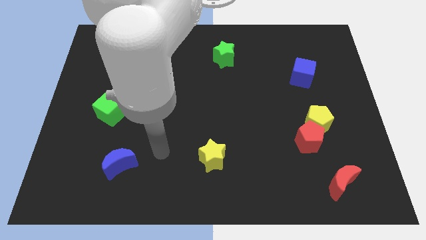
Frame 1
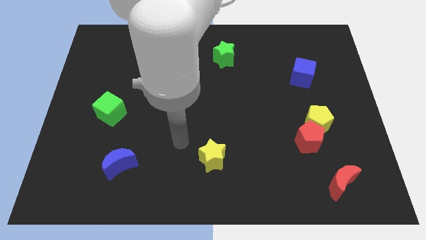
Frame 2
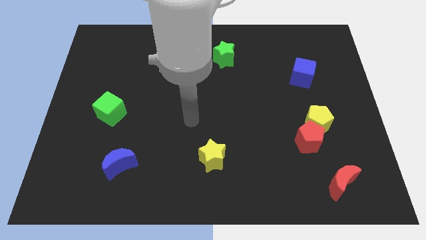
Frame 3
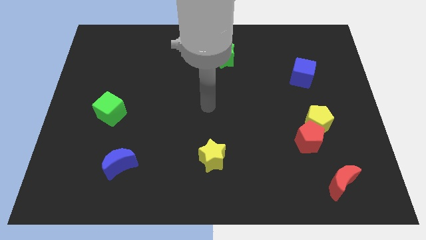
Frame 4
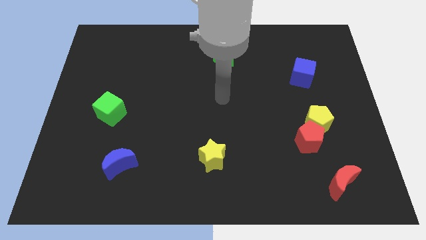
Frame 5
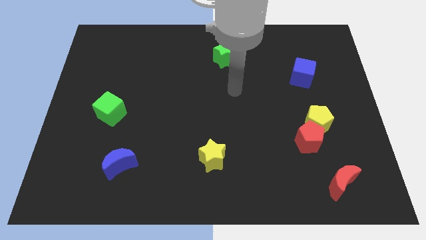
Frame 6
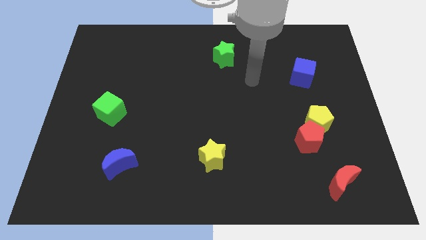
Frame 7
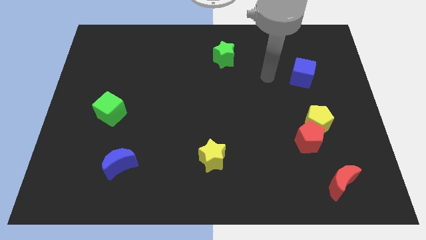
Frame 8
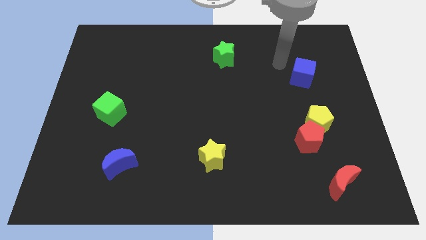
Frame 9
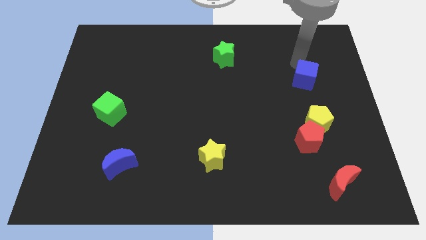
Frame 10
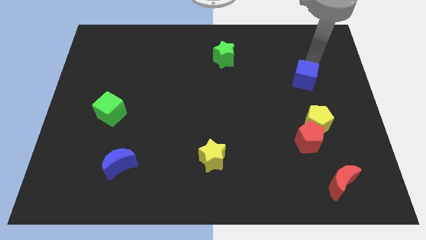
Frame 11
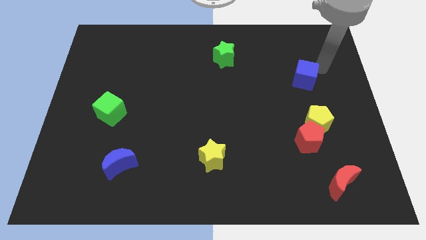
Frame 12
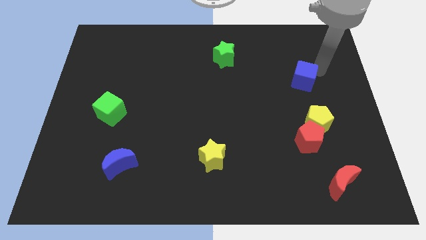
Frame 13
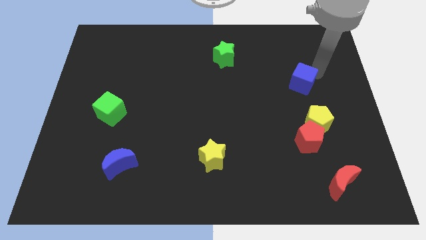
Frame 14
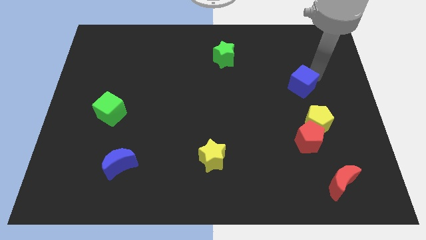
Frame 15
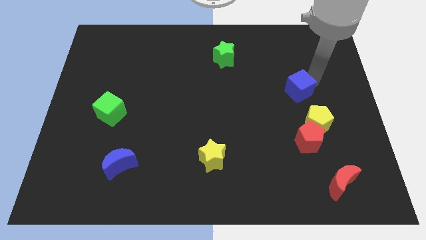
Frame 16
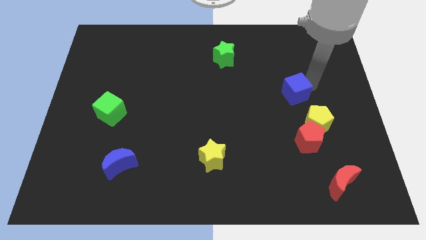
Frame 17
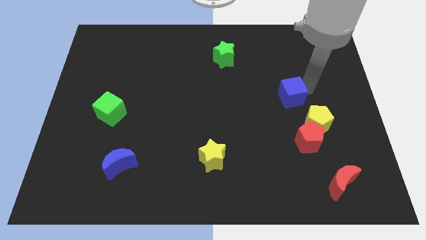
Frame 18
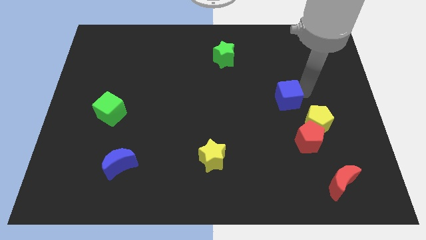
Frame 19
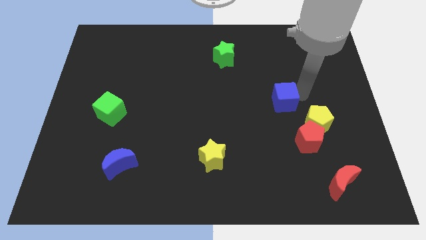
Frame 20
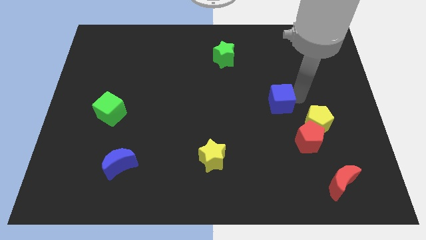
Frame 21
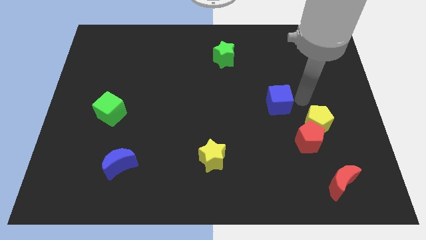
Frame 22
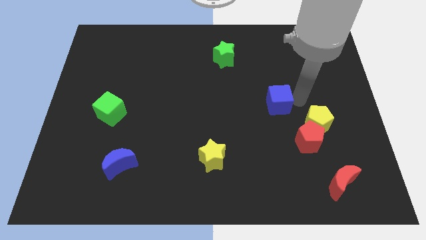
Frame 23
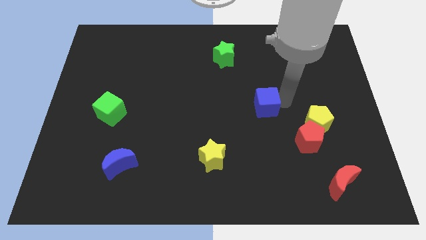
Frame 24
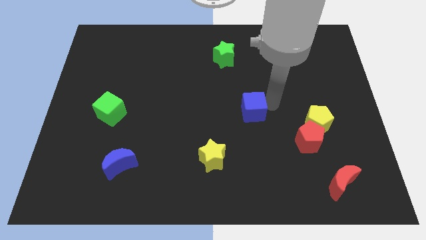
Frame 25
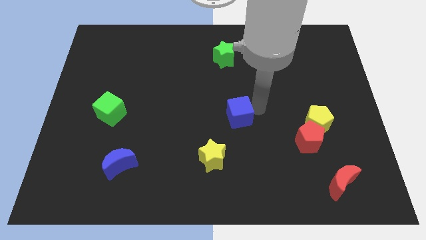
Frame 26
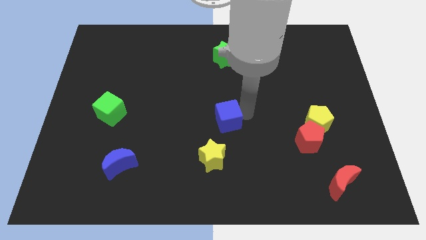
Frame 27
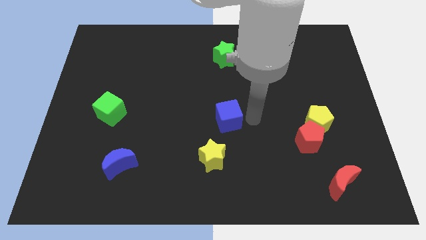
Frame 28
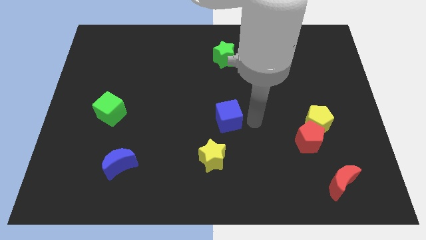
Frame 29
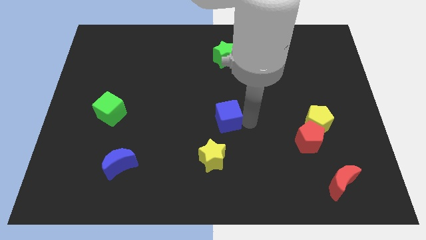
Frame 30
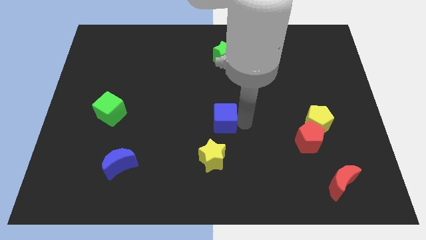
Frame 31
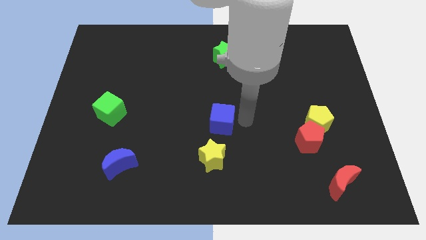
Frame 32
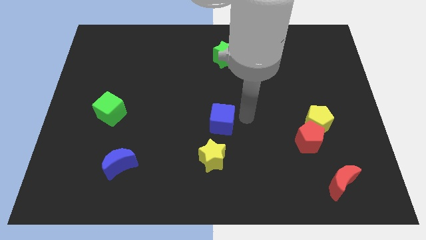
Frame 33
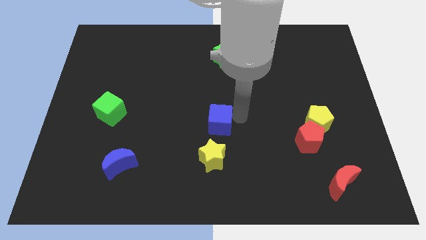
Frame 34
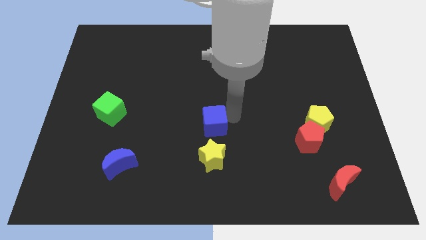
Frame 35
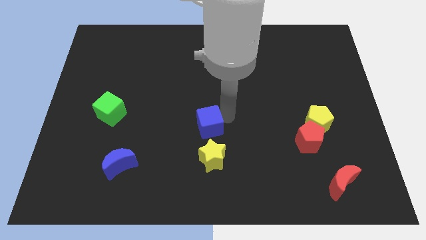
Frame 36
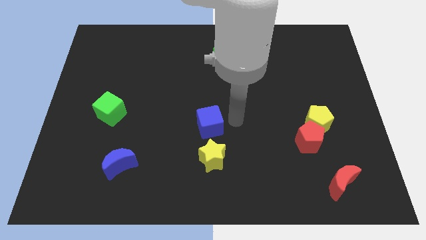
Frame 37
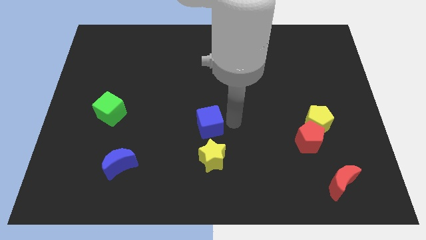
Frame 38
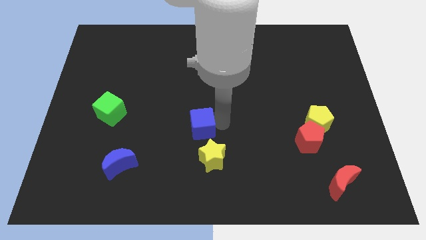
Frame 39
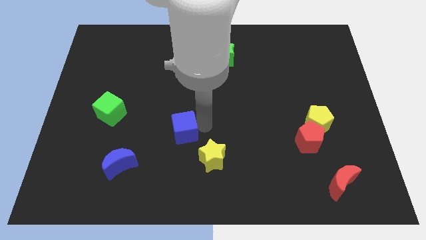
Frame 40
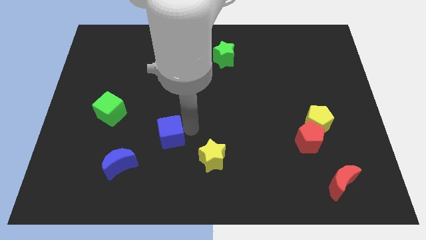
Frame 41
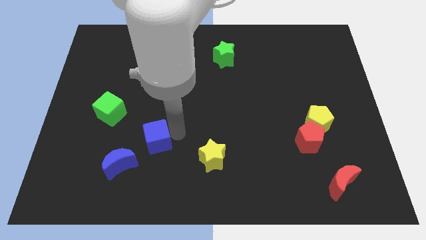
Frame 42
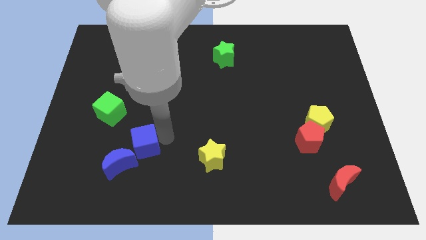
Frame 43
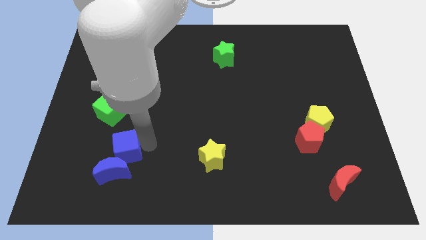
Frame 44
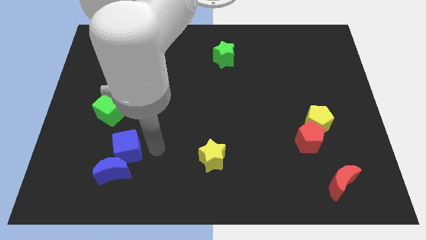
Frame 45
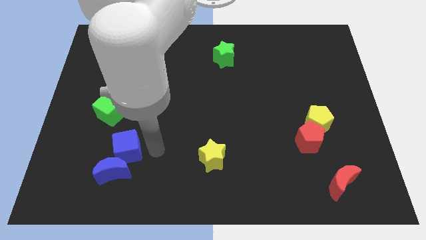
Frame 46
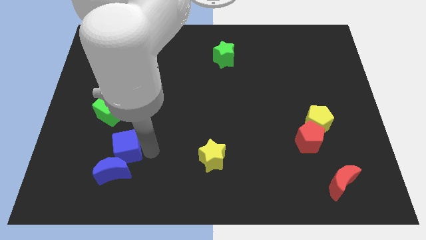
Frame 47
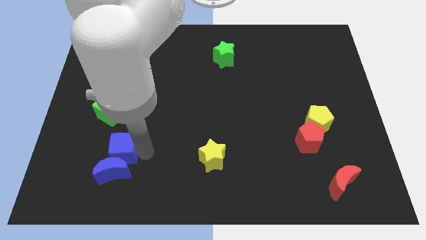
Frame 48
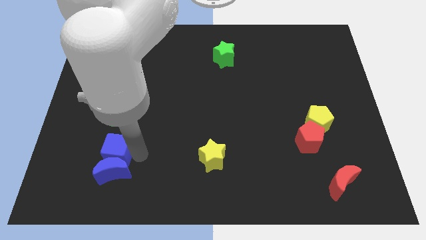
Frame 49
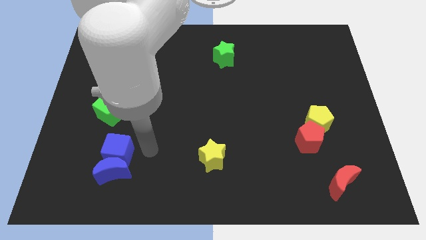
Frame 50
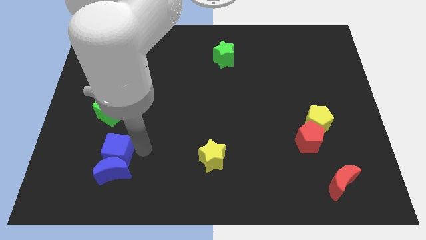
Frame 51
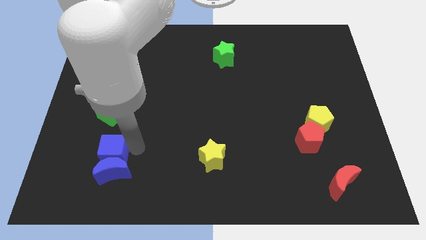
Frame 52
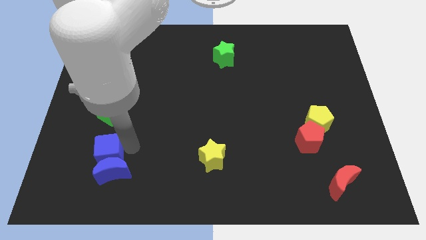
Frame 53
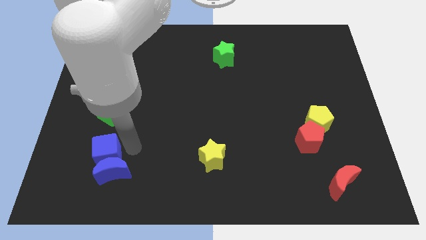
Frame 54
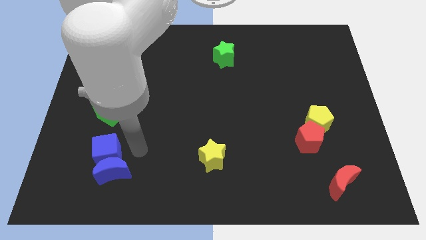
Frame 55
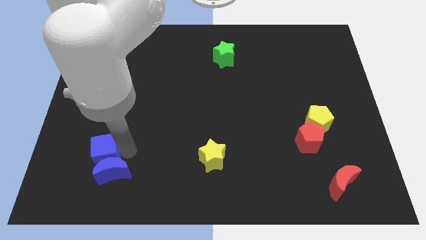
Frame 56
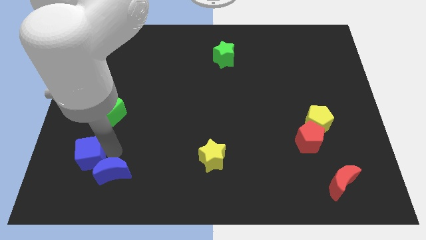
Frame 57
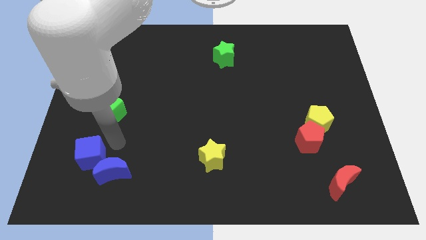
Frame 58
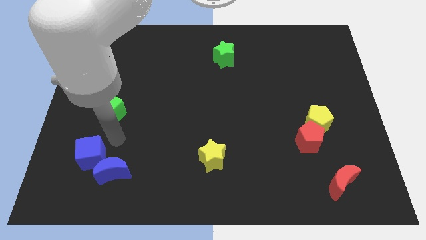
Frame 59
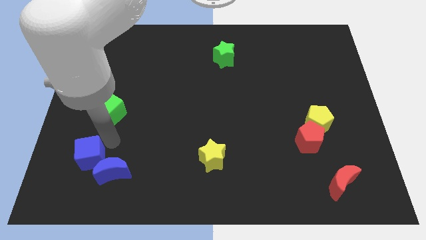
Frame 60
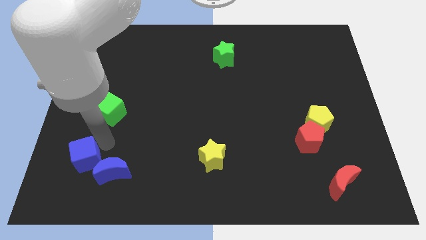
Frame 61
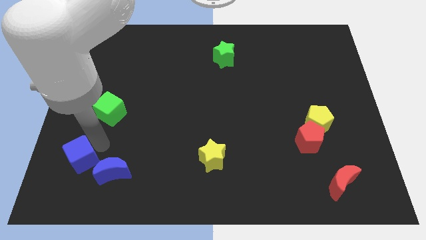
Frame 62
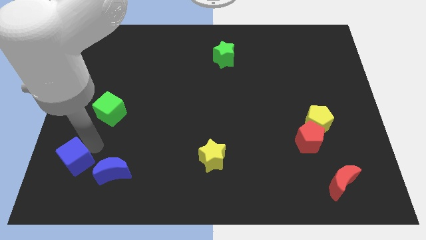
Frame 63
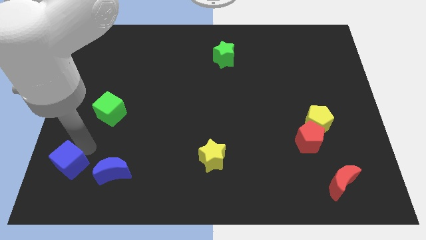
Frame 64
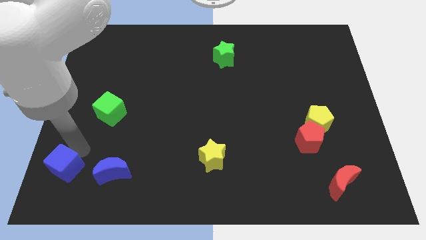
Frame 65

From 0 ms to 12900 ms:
slide the blue cube to the bottom left corner

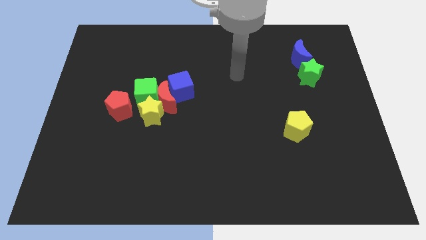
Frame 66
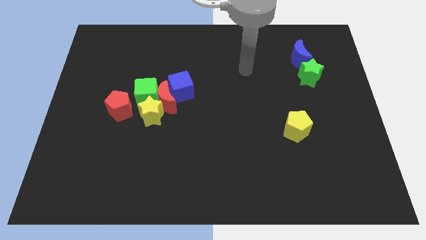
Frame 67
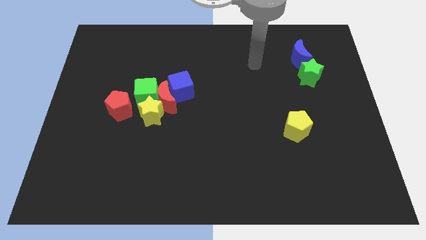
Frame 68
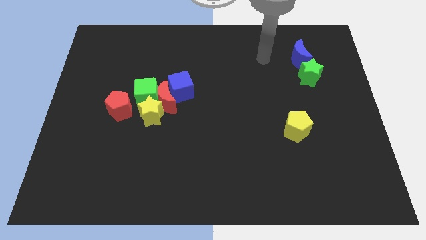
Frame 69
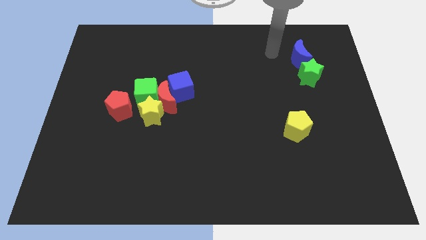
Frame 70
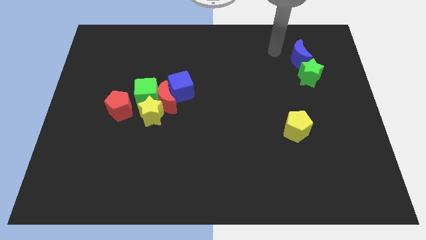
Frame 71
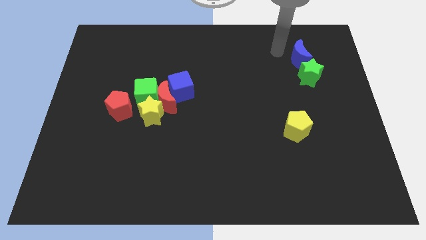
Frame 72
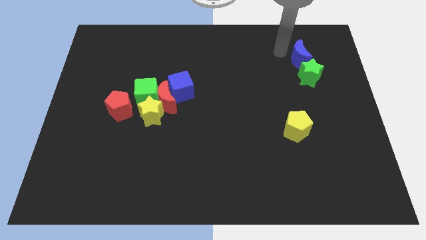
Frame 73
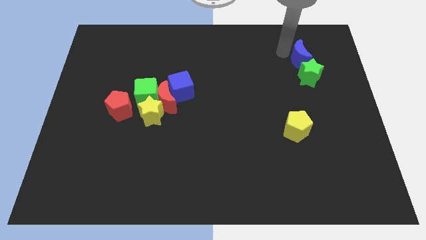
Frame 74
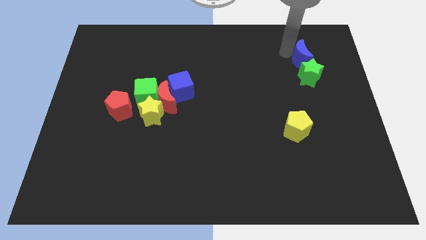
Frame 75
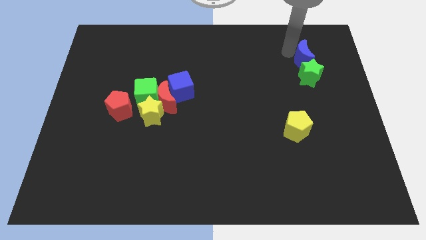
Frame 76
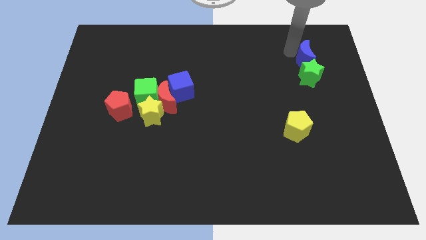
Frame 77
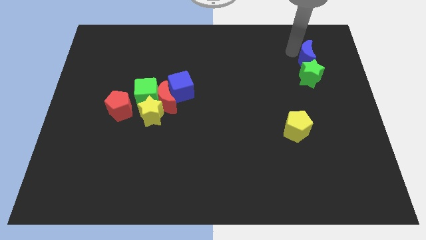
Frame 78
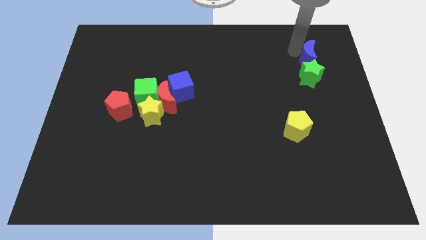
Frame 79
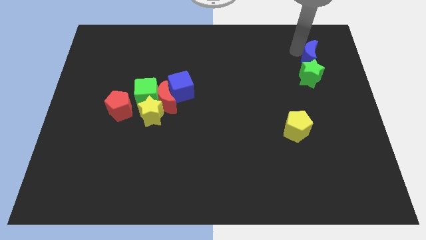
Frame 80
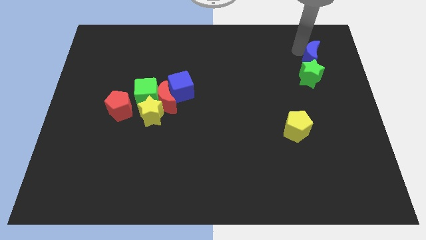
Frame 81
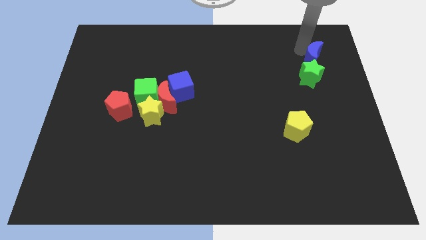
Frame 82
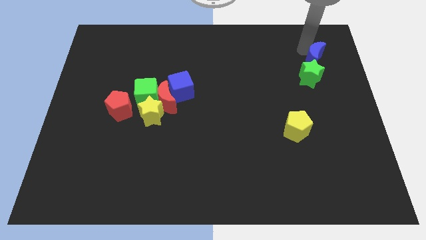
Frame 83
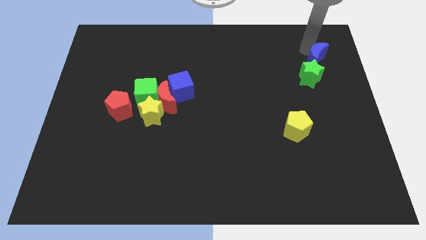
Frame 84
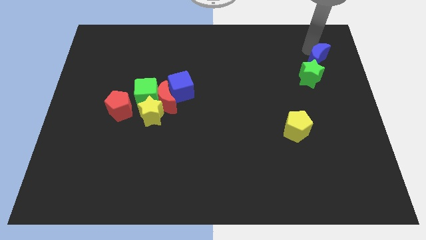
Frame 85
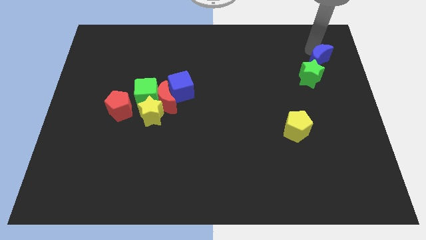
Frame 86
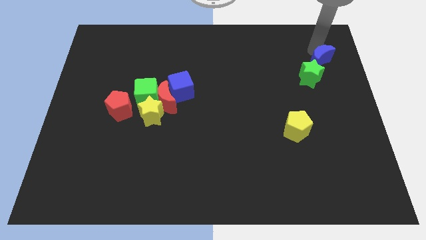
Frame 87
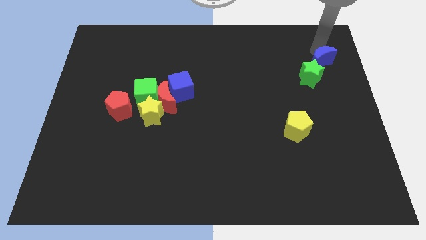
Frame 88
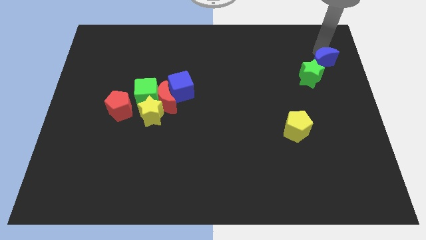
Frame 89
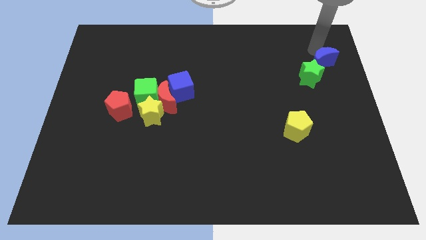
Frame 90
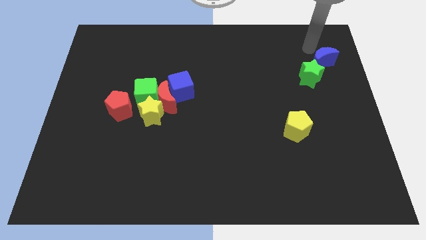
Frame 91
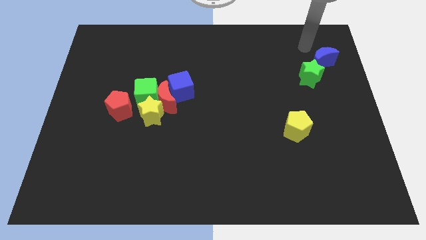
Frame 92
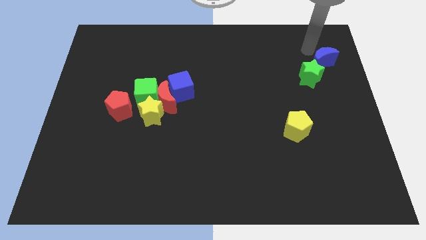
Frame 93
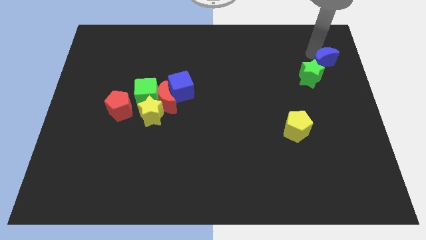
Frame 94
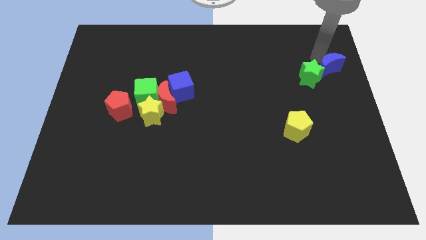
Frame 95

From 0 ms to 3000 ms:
push the blue moon to the right side
